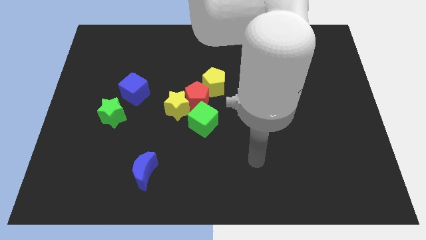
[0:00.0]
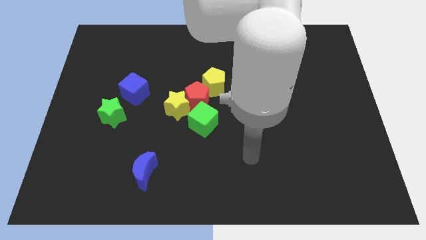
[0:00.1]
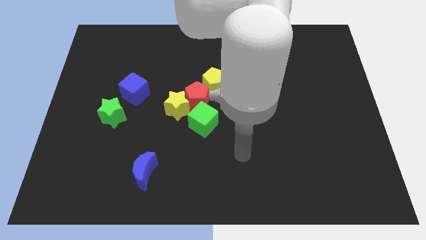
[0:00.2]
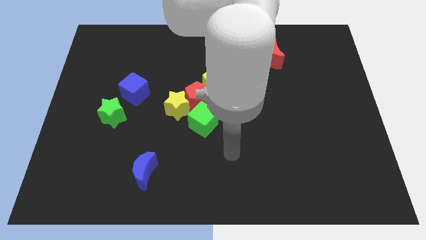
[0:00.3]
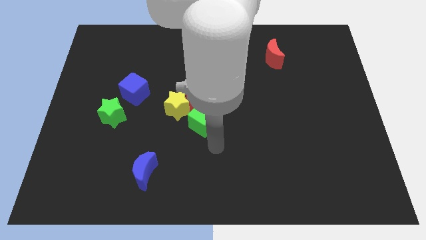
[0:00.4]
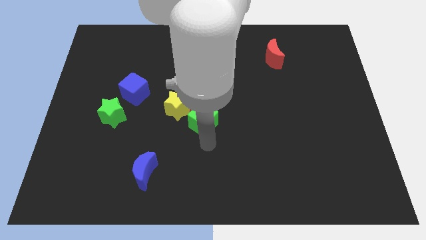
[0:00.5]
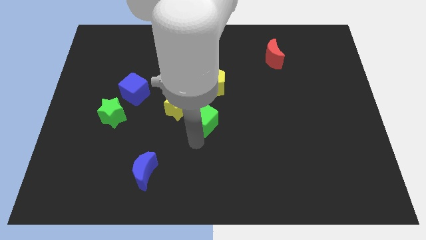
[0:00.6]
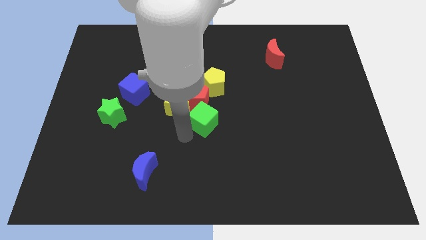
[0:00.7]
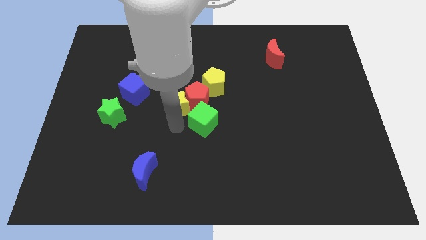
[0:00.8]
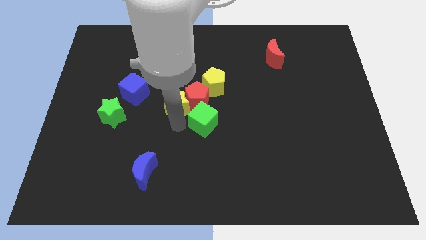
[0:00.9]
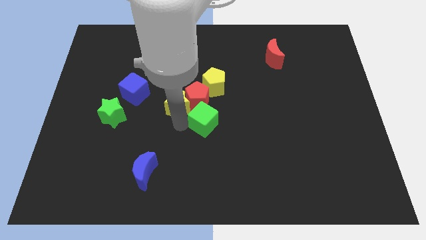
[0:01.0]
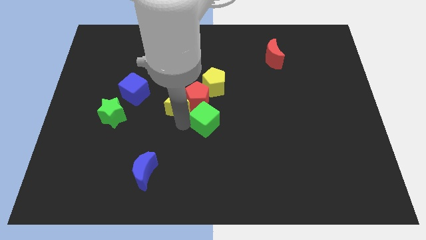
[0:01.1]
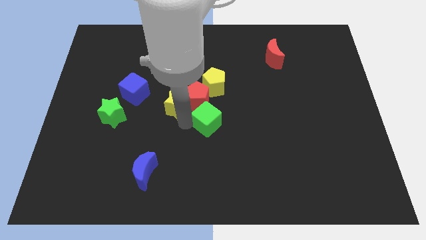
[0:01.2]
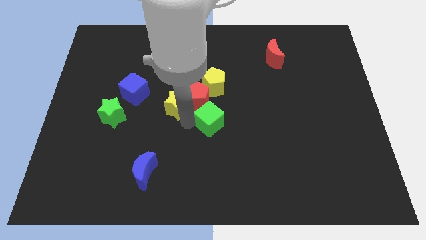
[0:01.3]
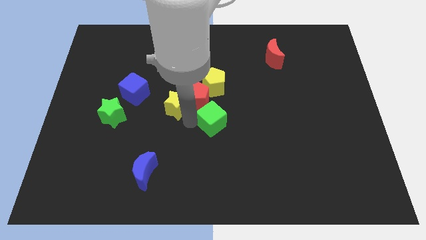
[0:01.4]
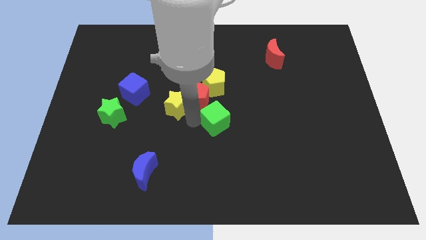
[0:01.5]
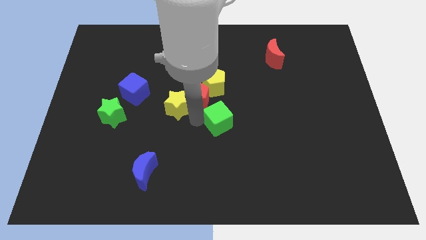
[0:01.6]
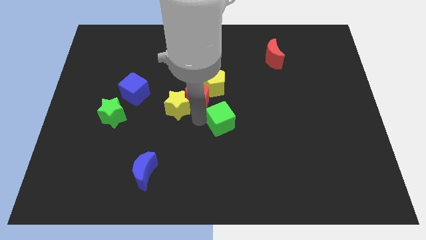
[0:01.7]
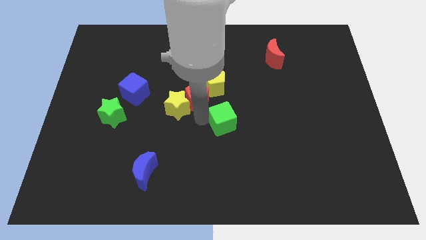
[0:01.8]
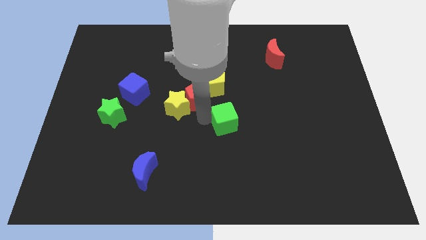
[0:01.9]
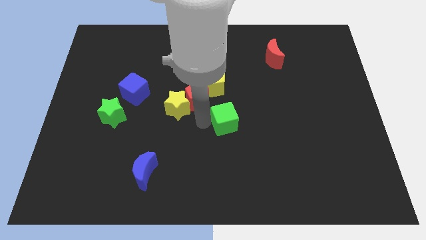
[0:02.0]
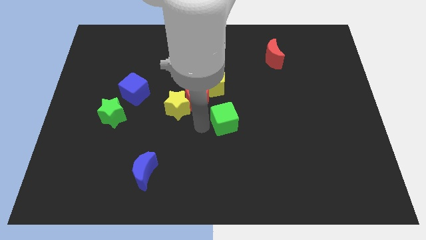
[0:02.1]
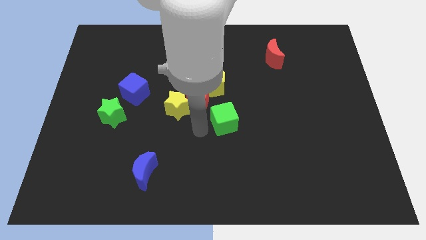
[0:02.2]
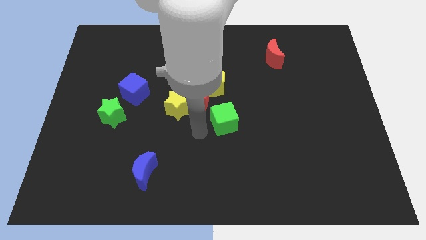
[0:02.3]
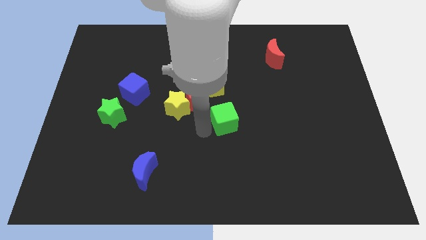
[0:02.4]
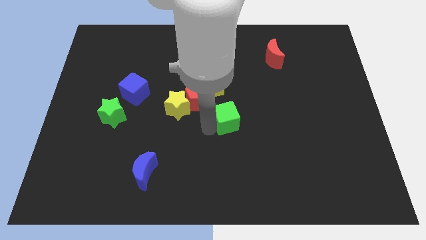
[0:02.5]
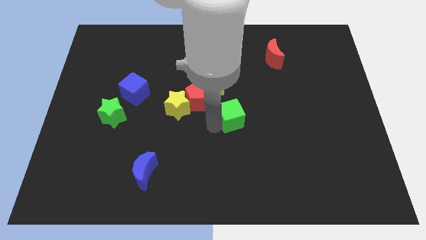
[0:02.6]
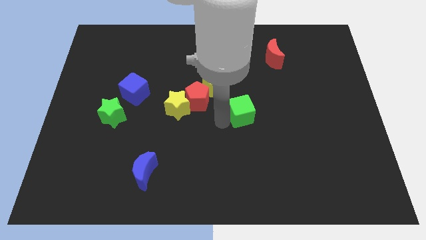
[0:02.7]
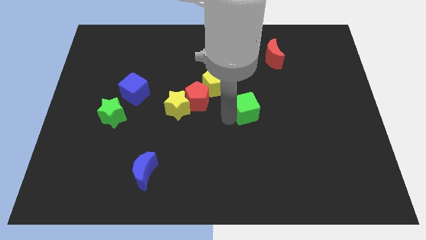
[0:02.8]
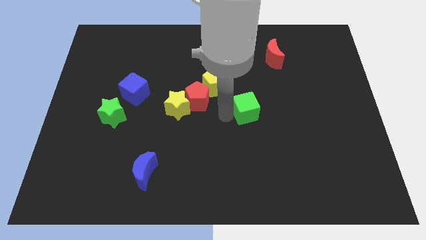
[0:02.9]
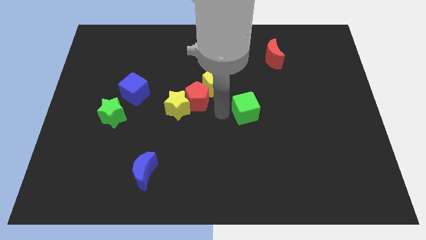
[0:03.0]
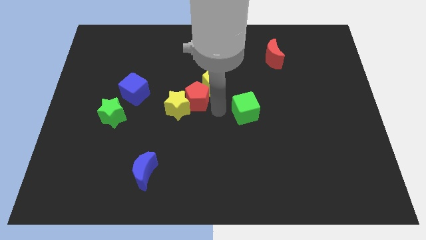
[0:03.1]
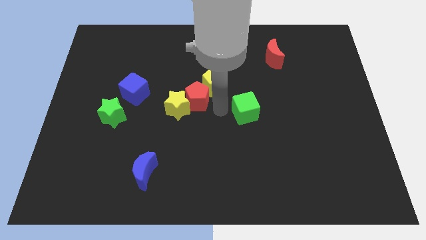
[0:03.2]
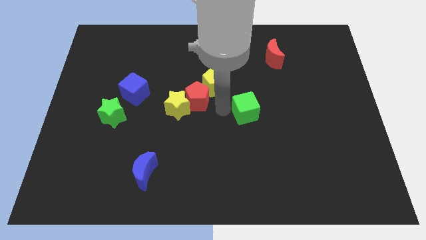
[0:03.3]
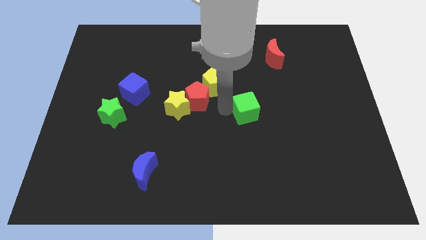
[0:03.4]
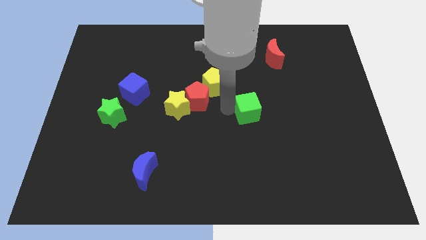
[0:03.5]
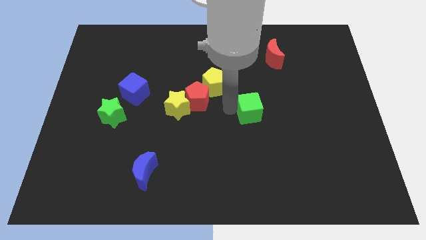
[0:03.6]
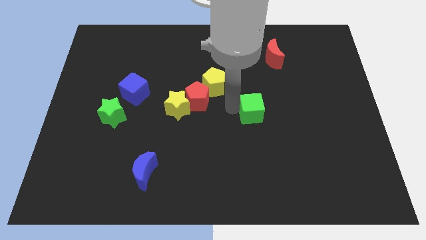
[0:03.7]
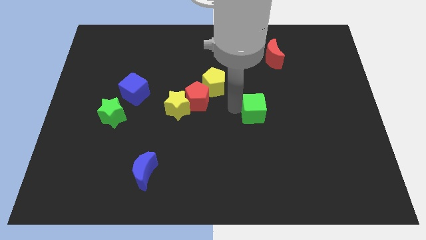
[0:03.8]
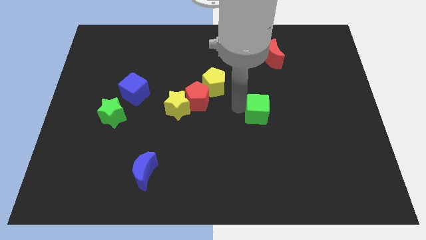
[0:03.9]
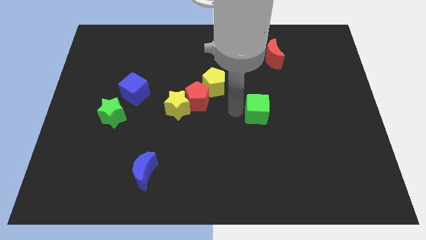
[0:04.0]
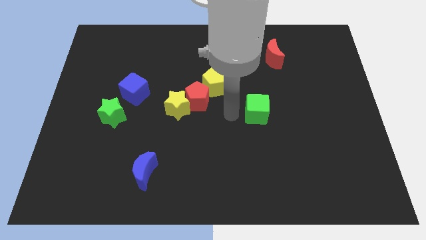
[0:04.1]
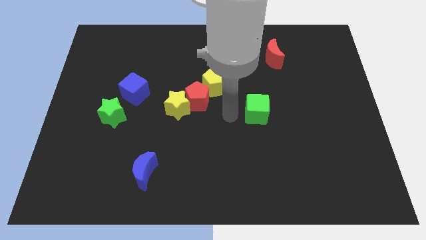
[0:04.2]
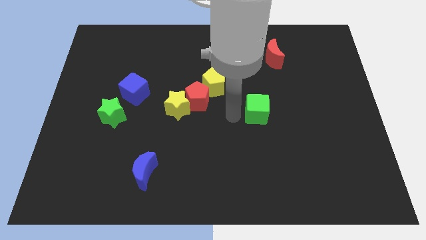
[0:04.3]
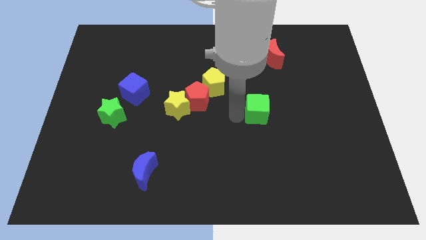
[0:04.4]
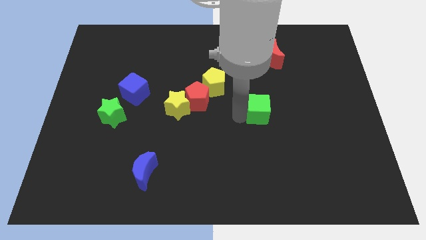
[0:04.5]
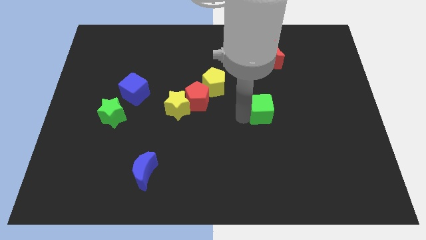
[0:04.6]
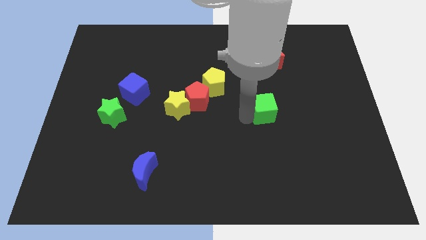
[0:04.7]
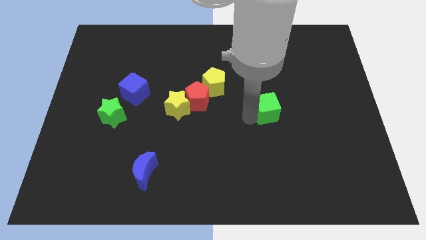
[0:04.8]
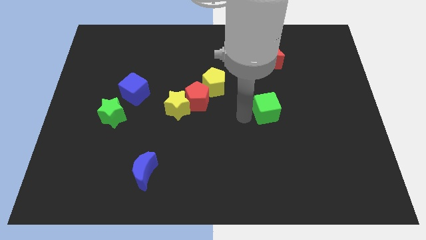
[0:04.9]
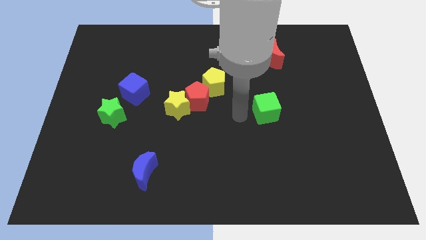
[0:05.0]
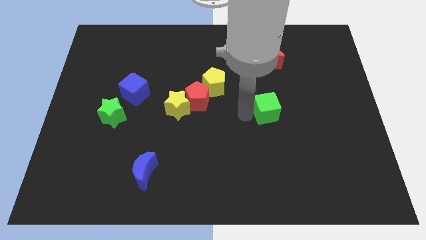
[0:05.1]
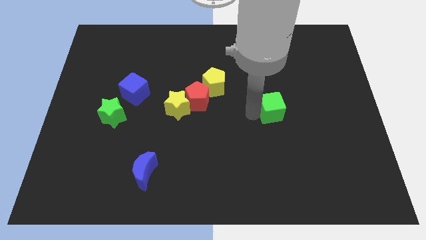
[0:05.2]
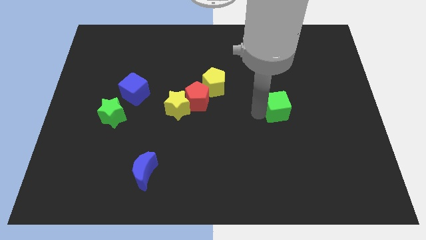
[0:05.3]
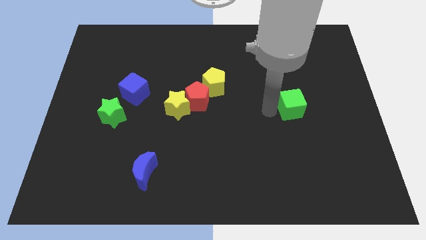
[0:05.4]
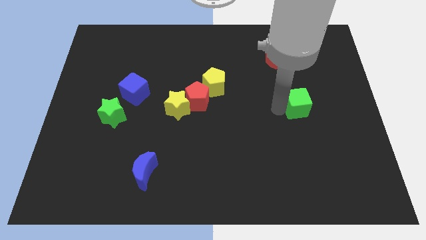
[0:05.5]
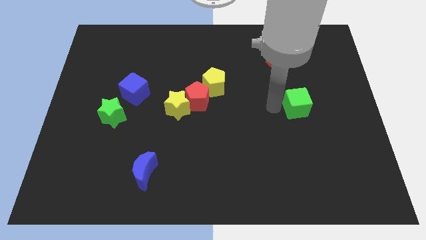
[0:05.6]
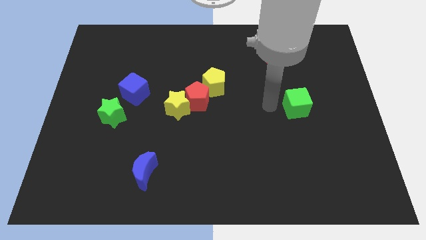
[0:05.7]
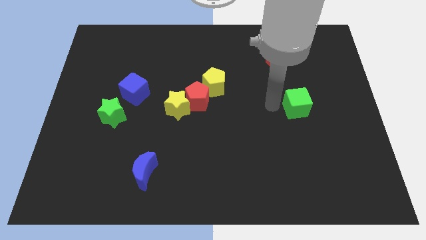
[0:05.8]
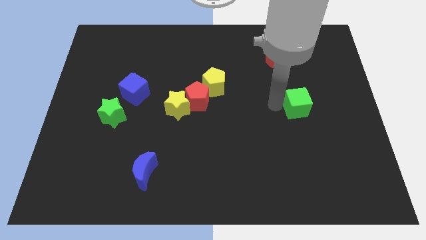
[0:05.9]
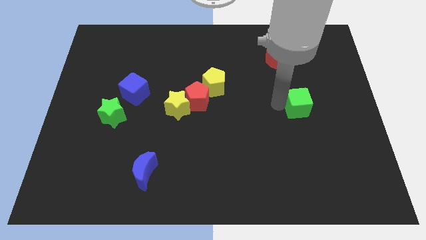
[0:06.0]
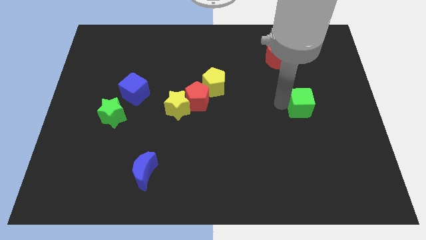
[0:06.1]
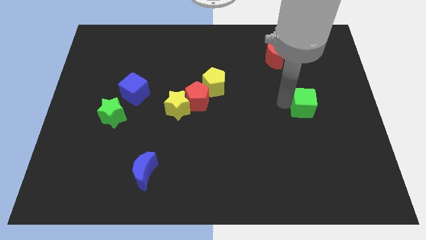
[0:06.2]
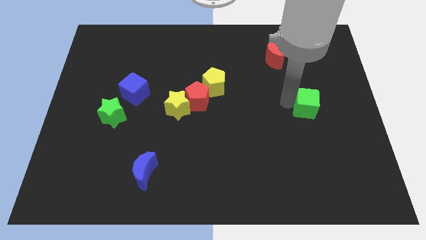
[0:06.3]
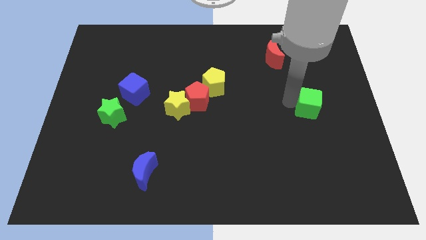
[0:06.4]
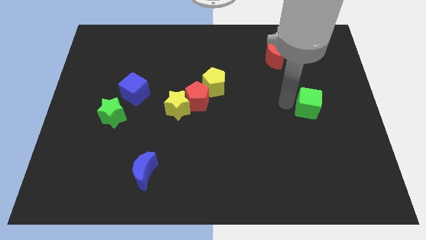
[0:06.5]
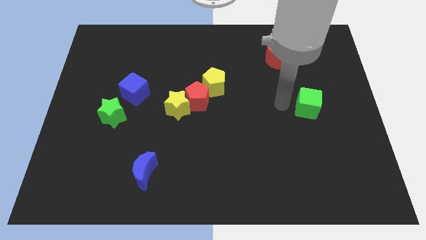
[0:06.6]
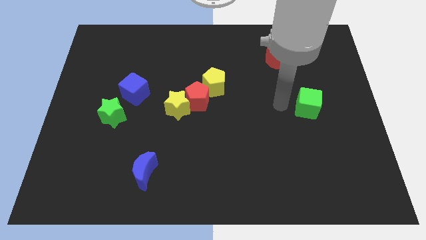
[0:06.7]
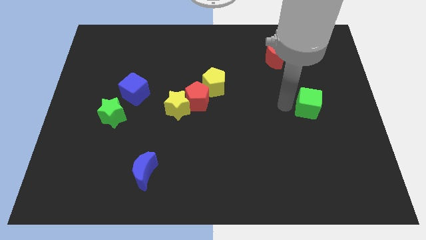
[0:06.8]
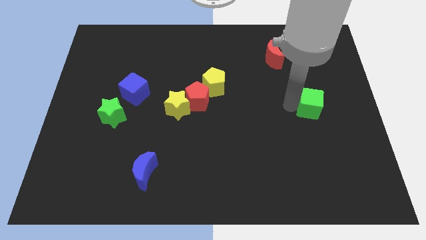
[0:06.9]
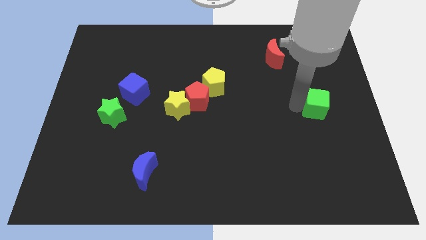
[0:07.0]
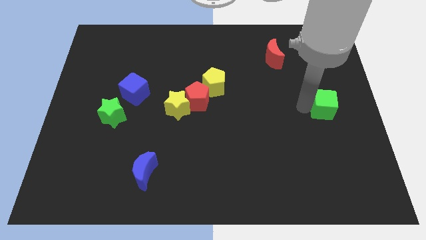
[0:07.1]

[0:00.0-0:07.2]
slide the green cube to the center right
